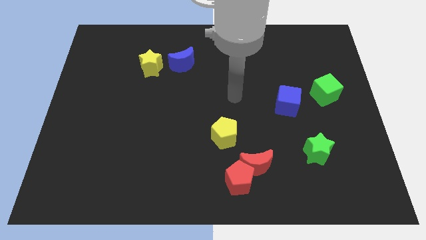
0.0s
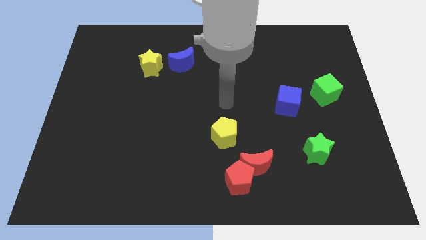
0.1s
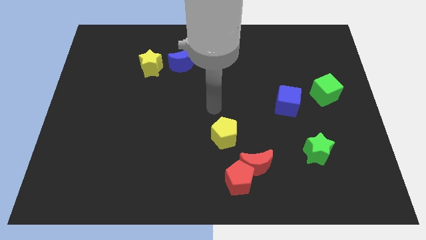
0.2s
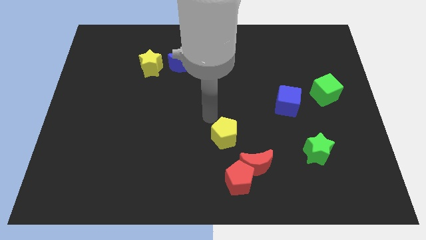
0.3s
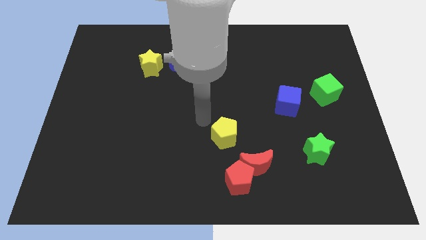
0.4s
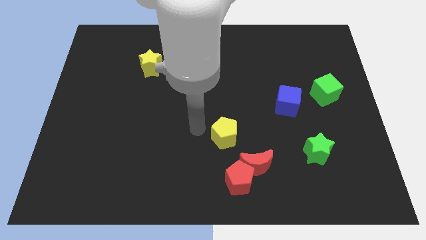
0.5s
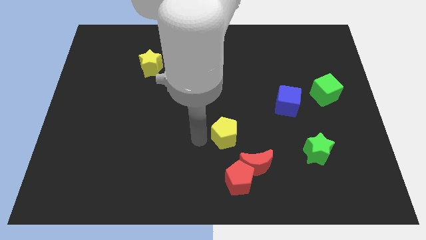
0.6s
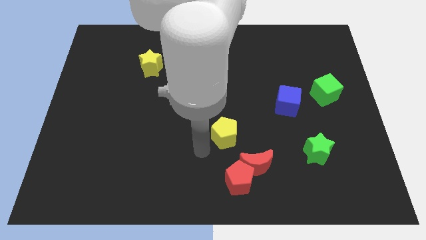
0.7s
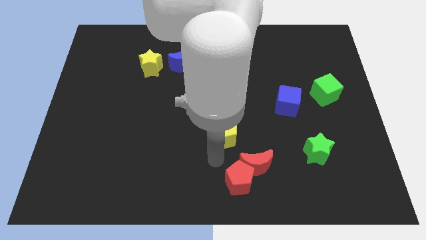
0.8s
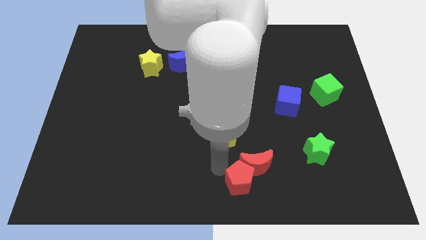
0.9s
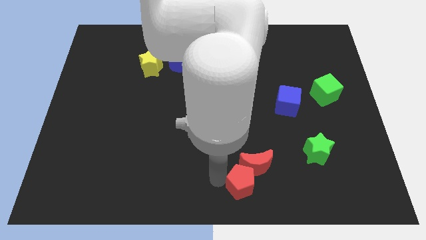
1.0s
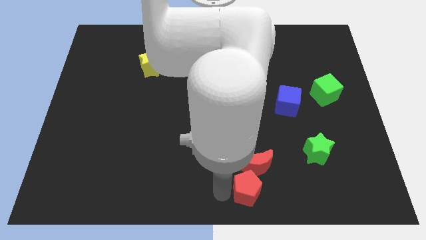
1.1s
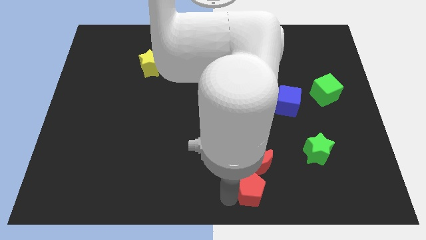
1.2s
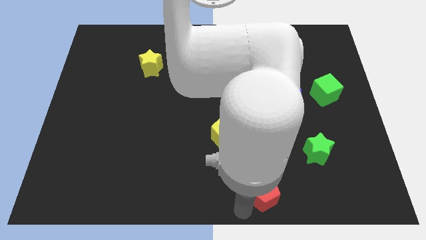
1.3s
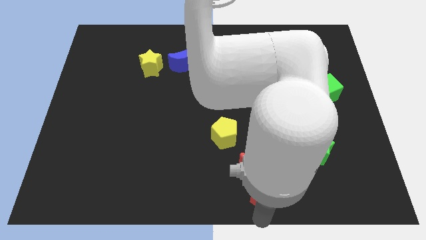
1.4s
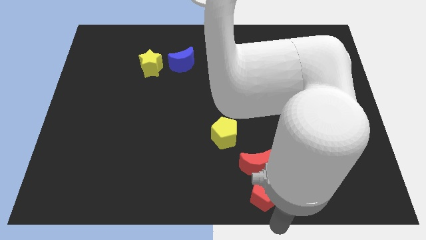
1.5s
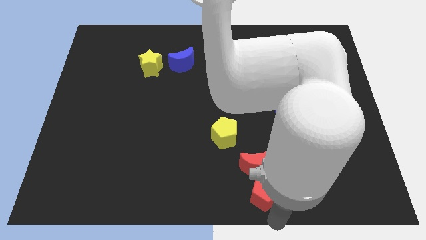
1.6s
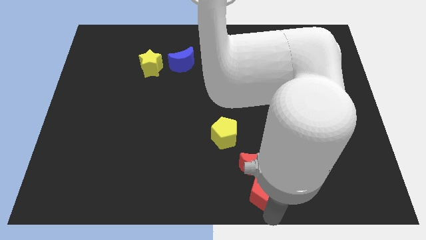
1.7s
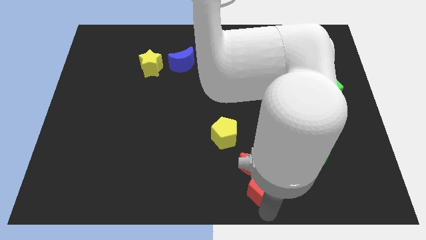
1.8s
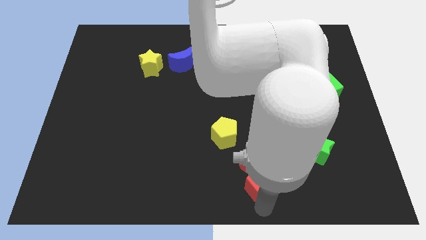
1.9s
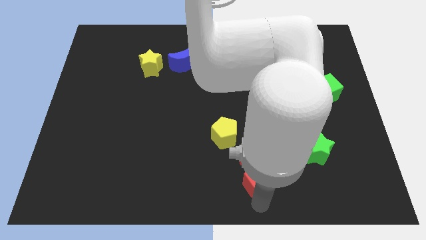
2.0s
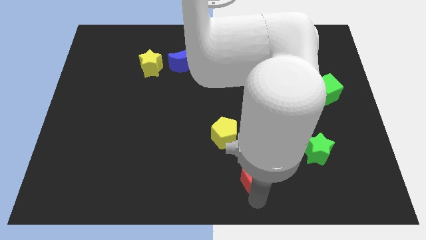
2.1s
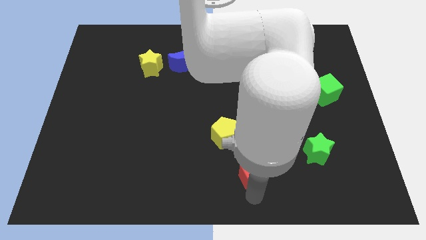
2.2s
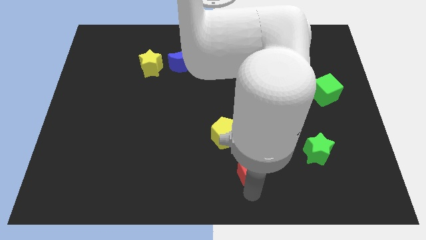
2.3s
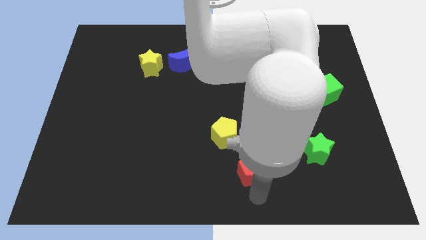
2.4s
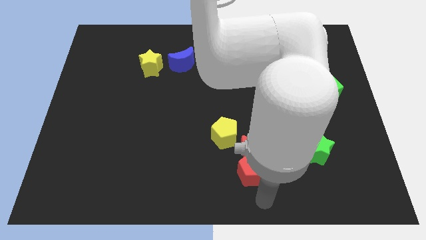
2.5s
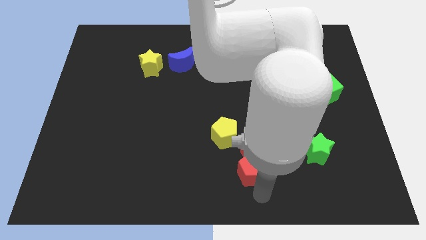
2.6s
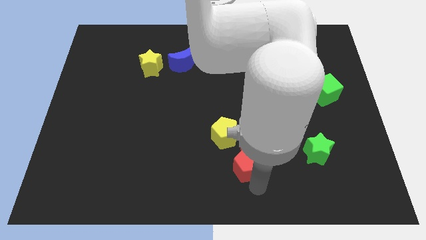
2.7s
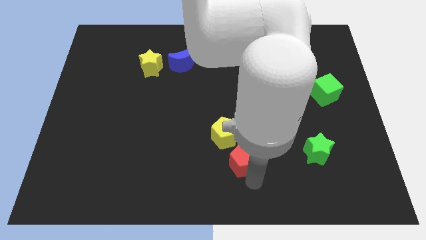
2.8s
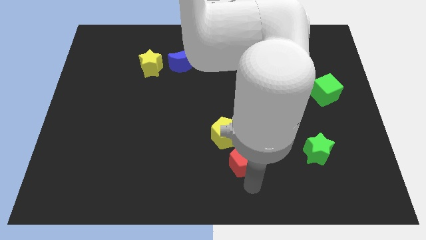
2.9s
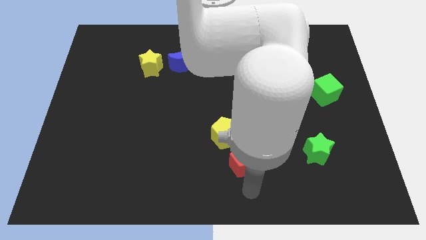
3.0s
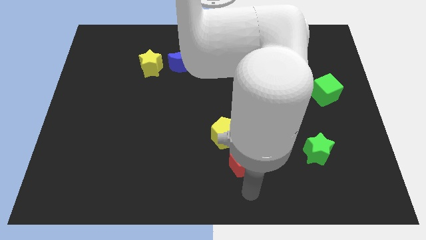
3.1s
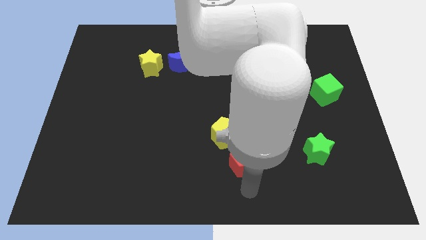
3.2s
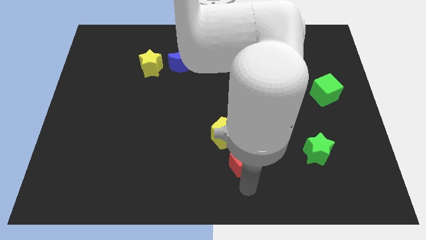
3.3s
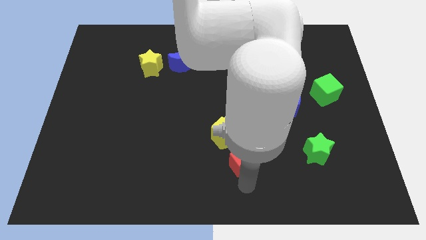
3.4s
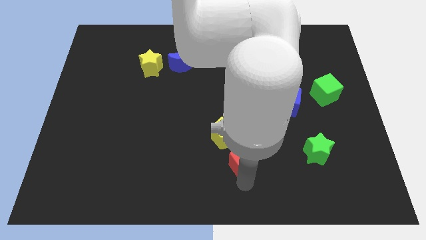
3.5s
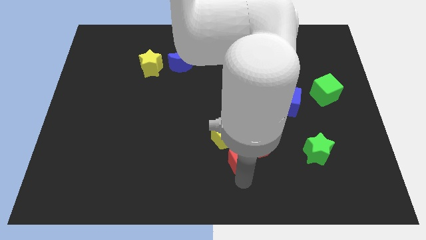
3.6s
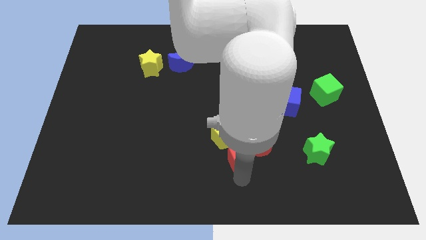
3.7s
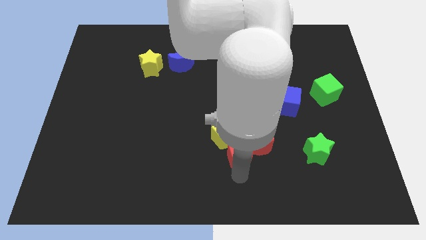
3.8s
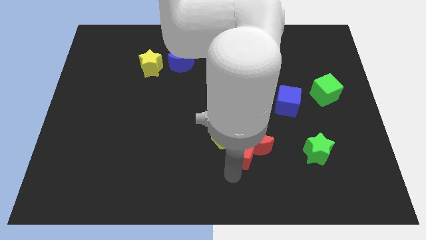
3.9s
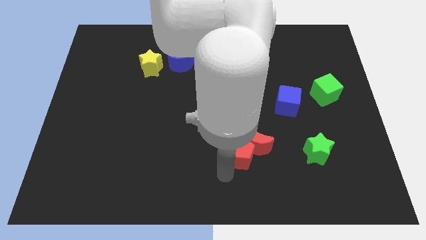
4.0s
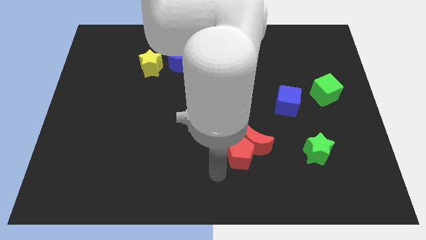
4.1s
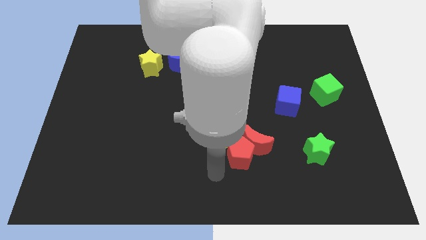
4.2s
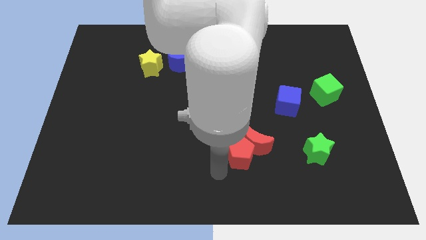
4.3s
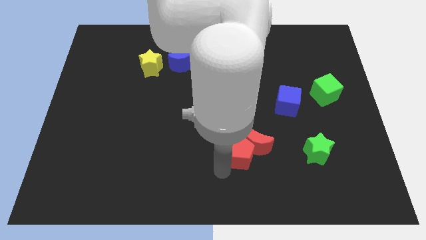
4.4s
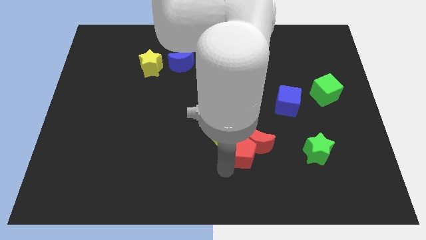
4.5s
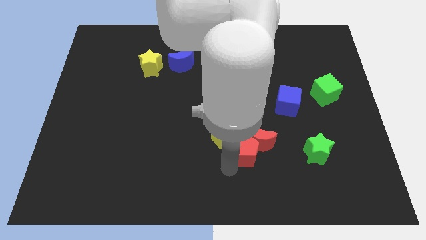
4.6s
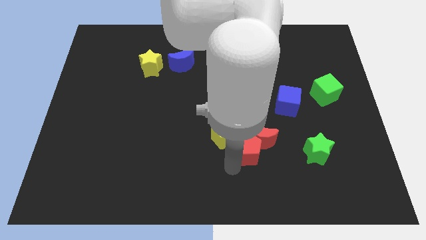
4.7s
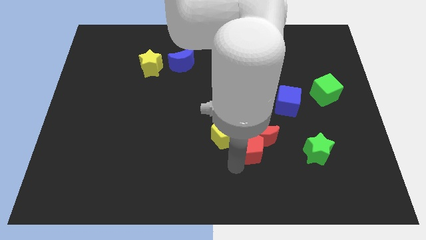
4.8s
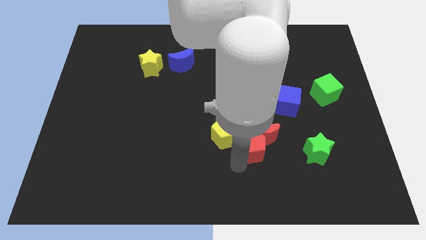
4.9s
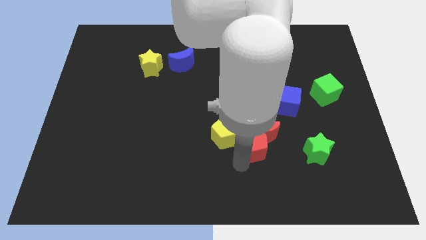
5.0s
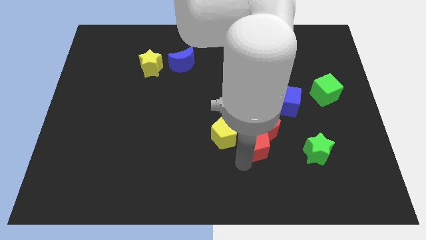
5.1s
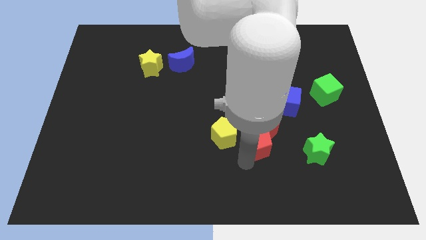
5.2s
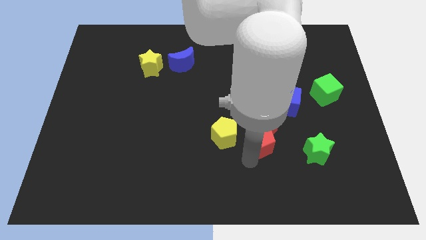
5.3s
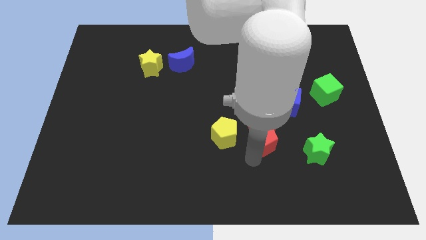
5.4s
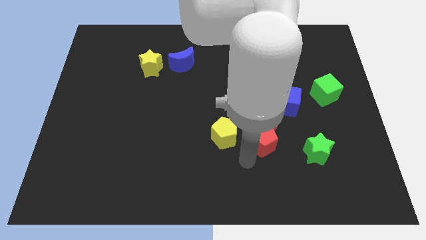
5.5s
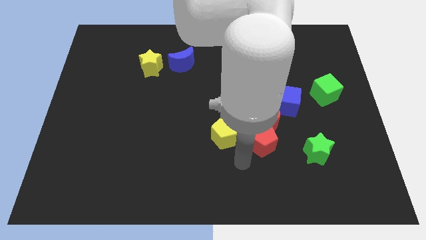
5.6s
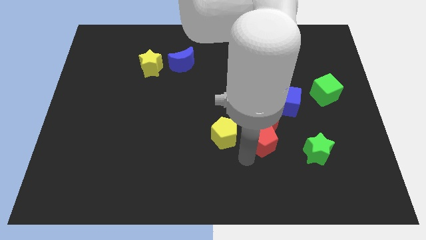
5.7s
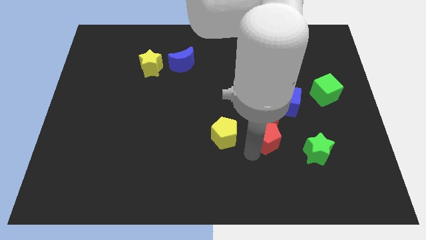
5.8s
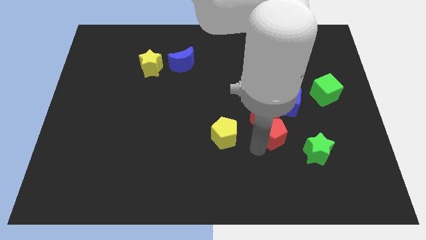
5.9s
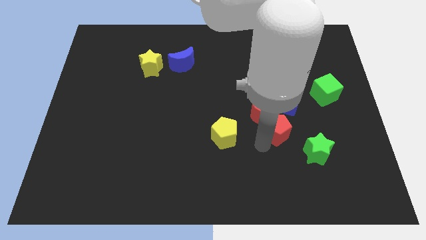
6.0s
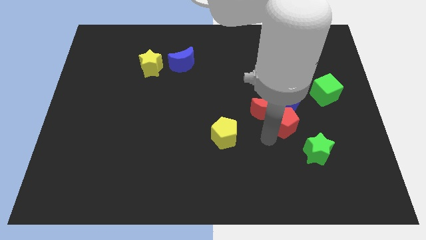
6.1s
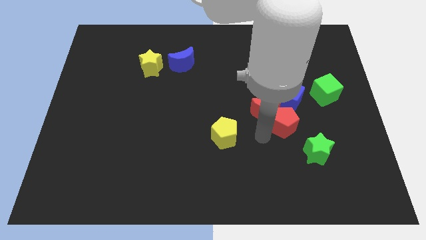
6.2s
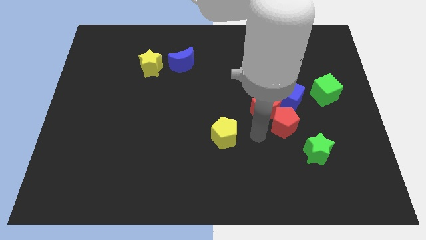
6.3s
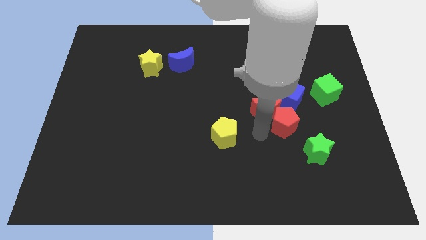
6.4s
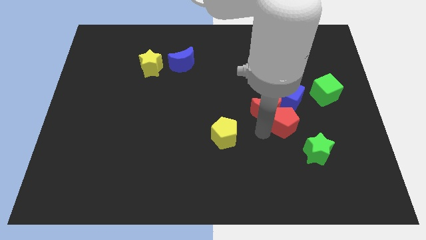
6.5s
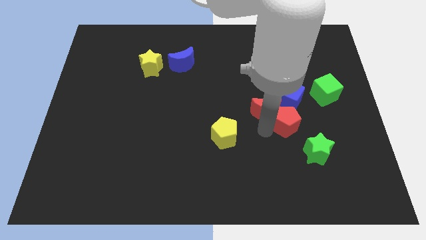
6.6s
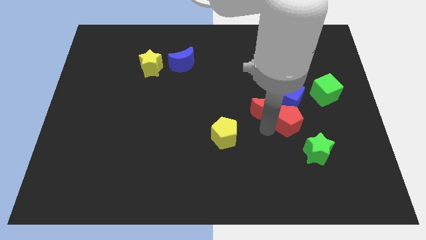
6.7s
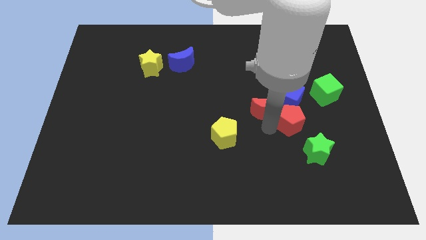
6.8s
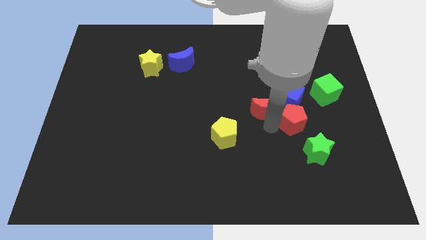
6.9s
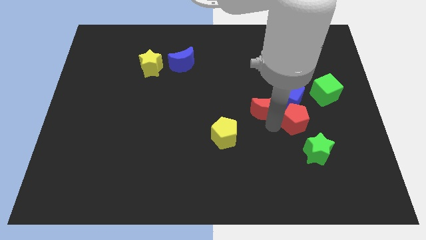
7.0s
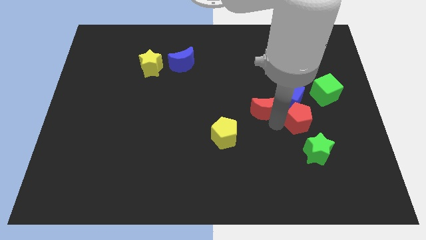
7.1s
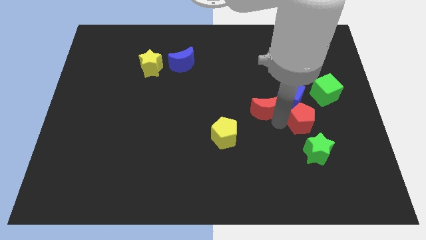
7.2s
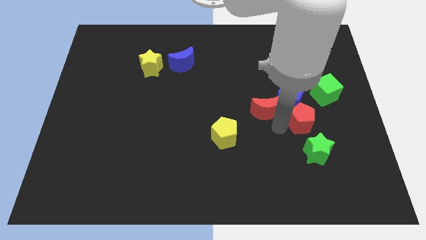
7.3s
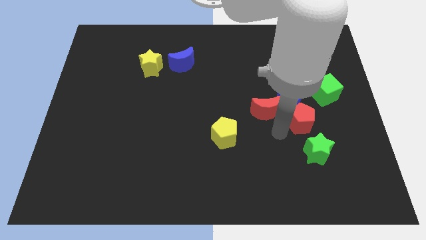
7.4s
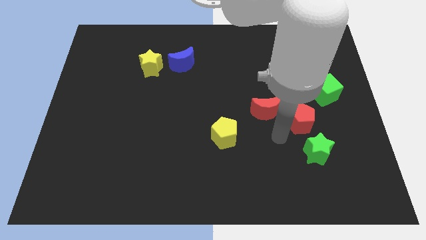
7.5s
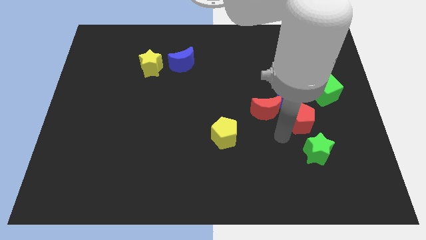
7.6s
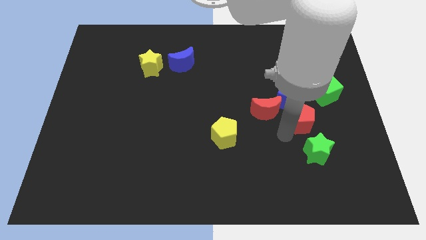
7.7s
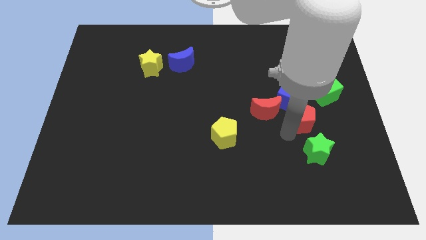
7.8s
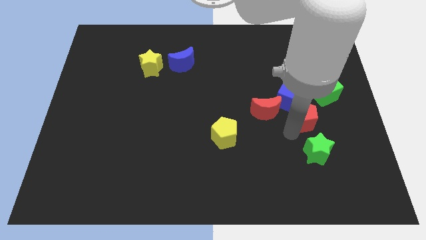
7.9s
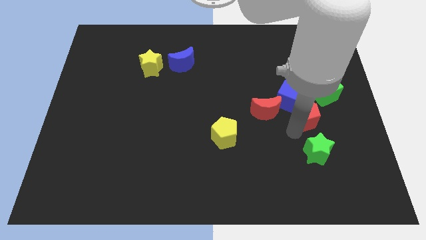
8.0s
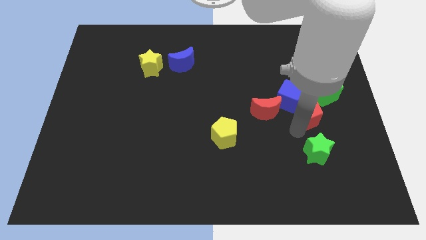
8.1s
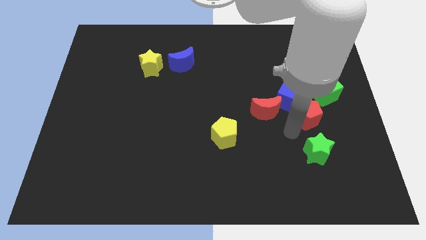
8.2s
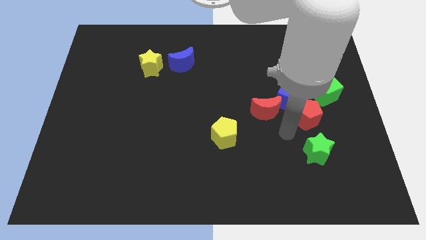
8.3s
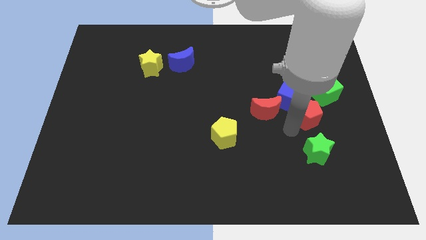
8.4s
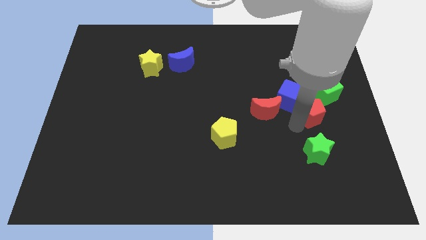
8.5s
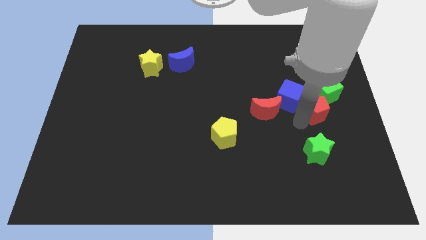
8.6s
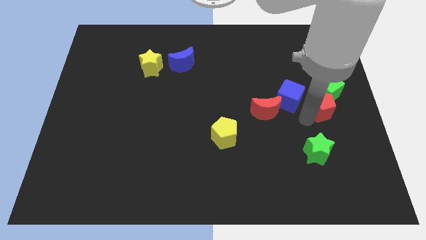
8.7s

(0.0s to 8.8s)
push the red pentagon close to the green cube
